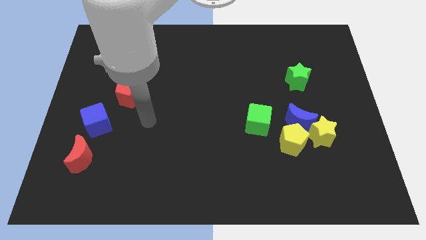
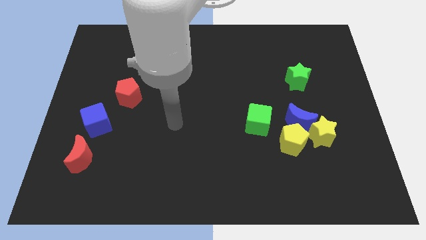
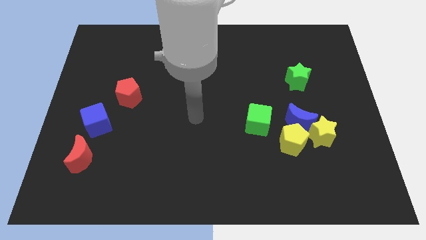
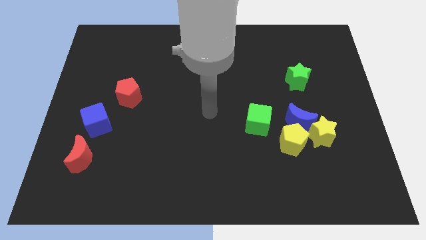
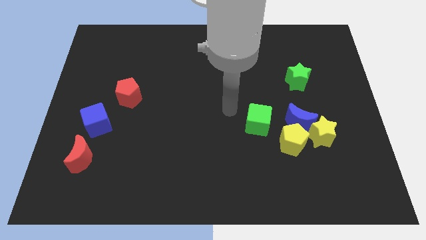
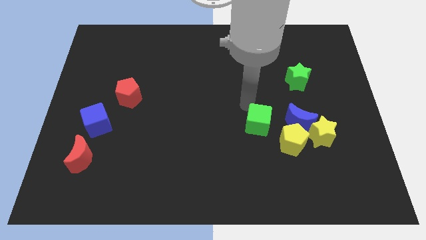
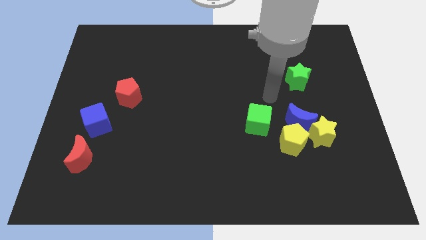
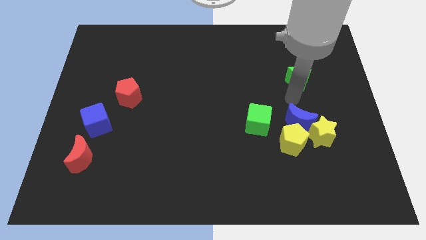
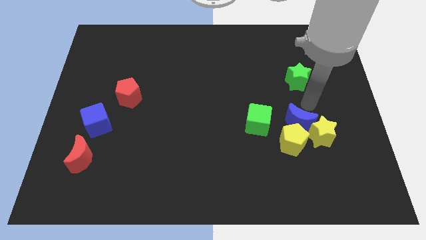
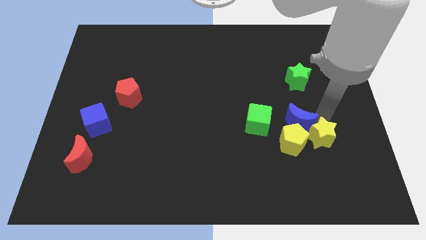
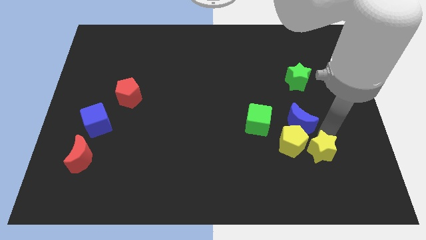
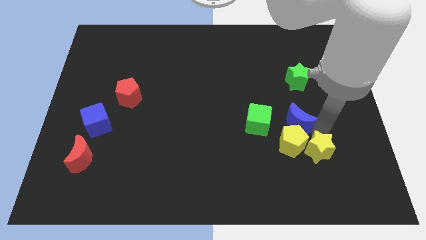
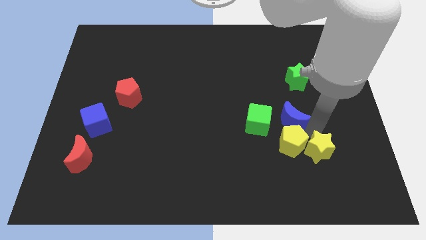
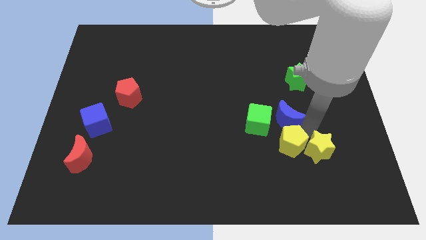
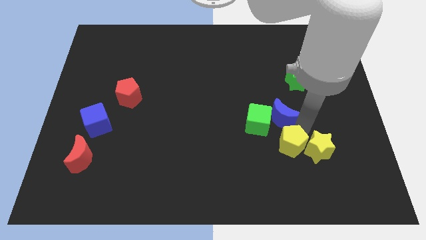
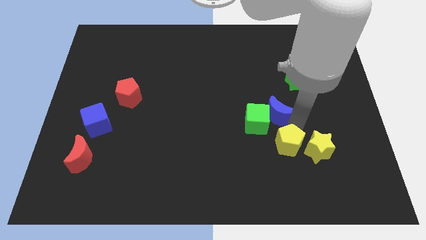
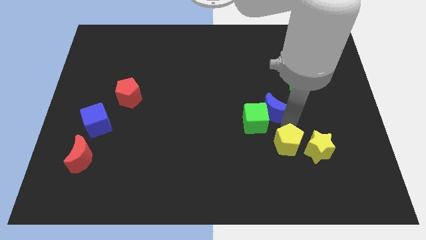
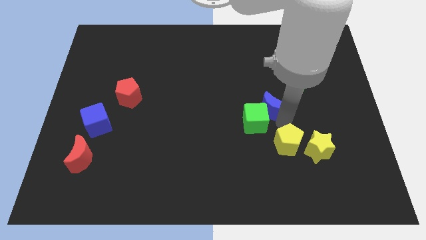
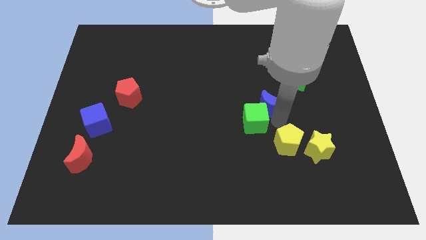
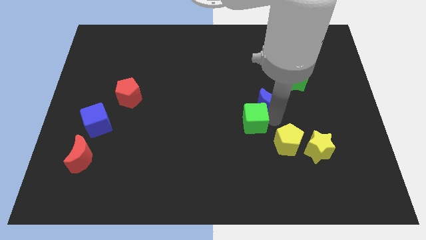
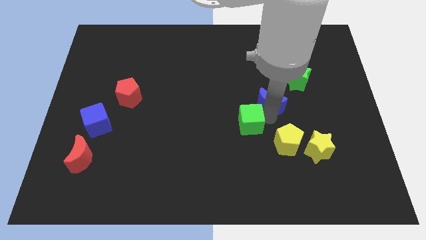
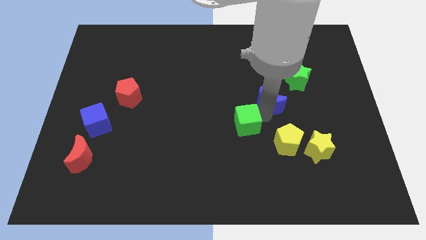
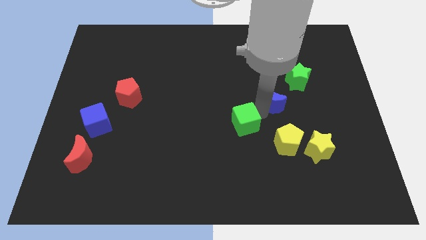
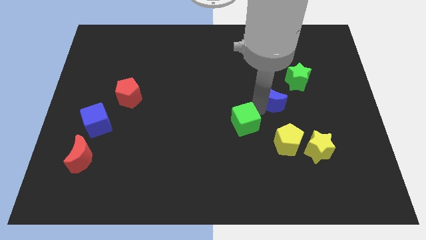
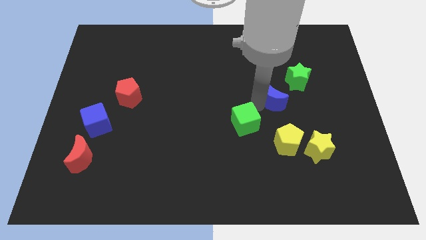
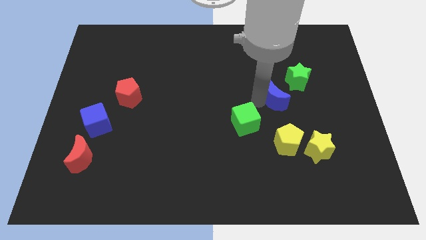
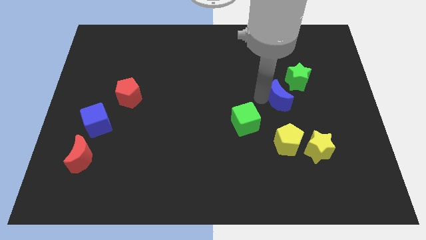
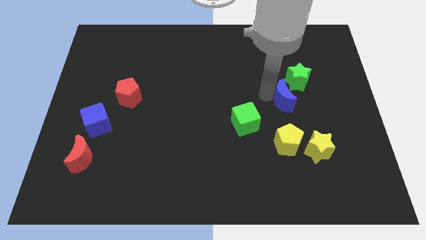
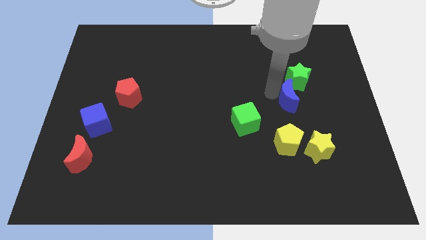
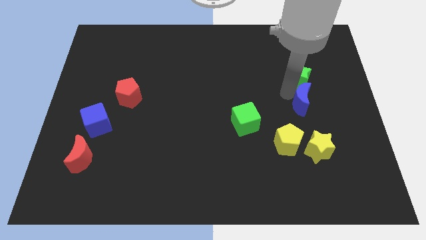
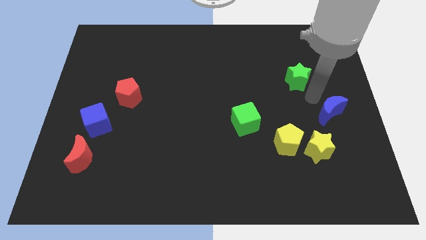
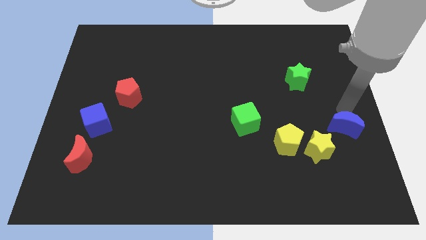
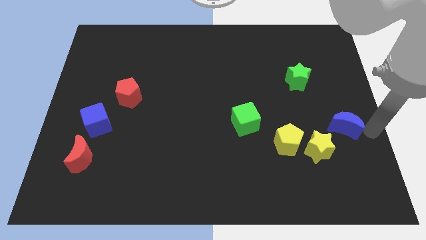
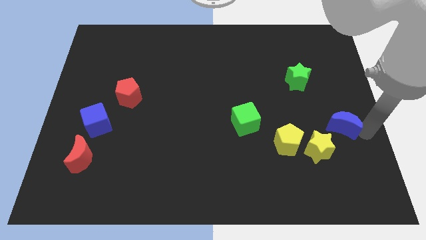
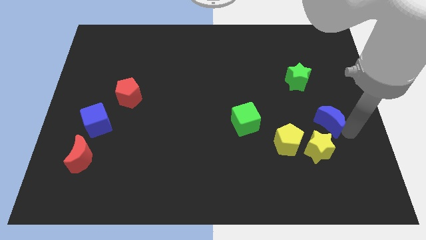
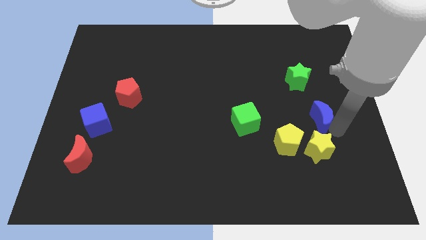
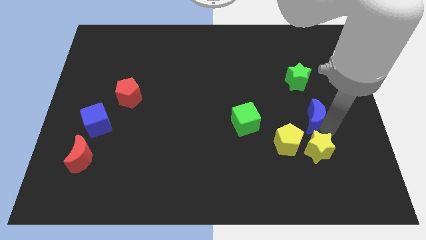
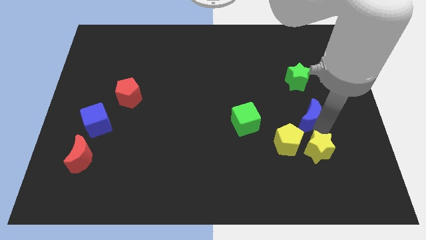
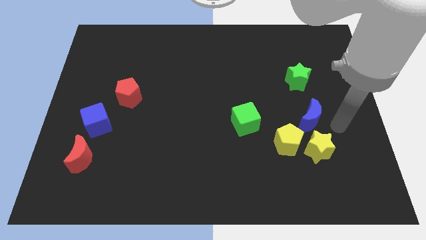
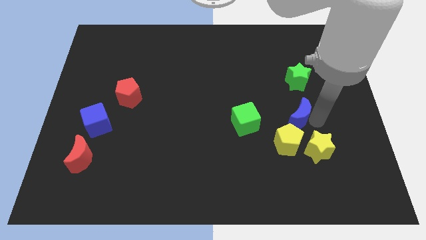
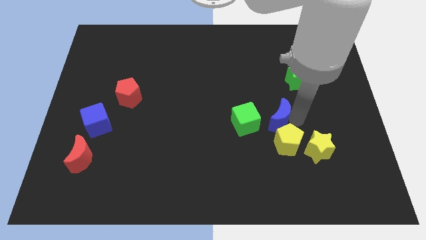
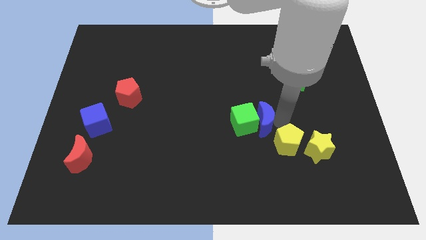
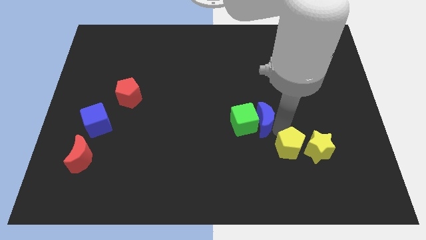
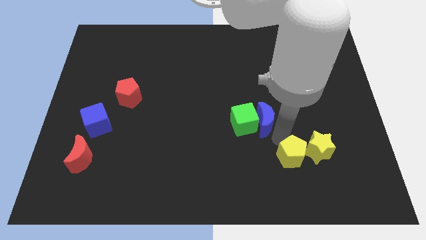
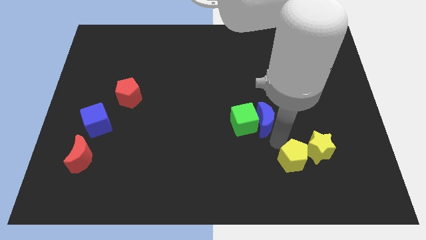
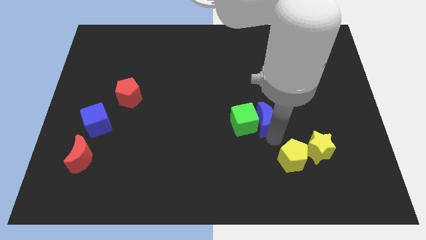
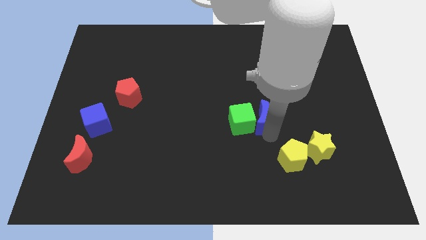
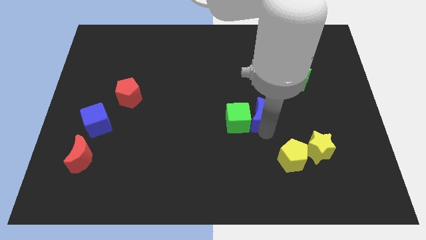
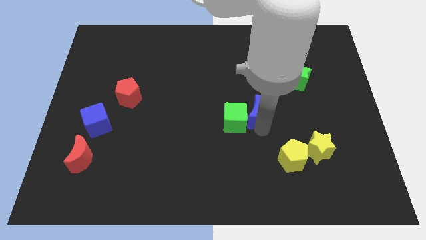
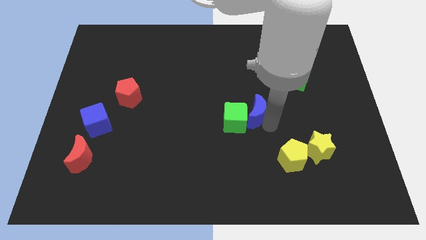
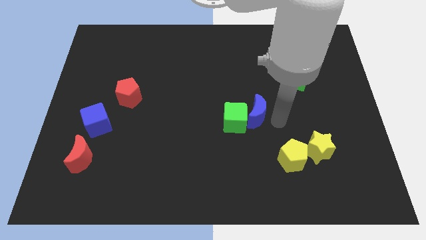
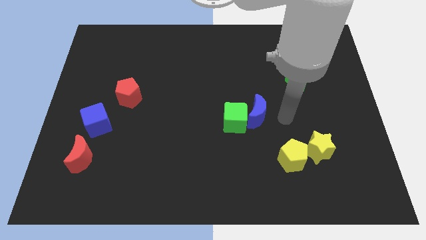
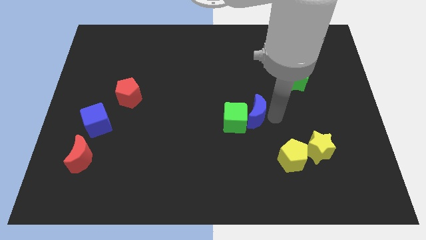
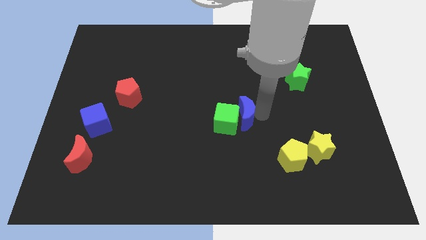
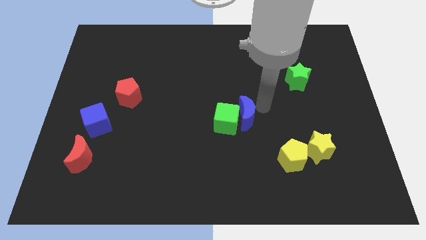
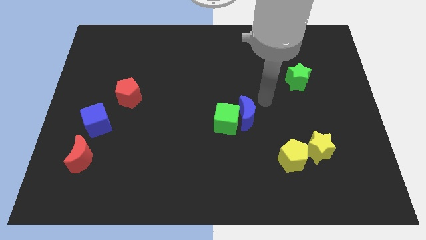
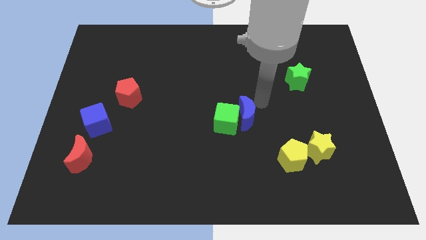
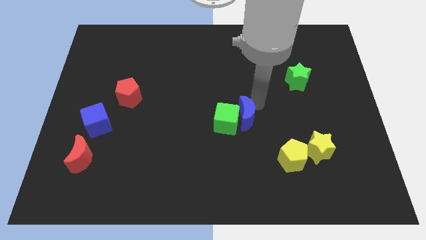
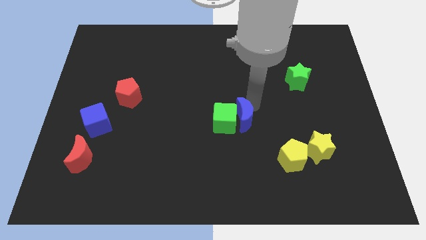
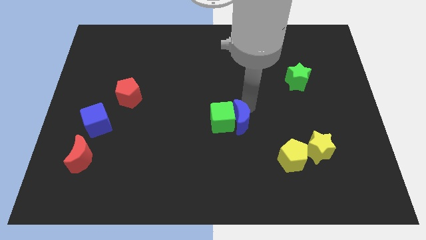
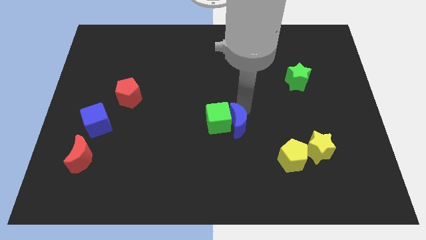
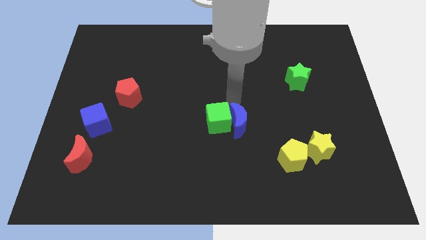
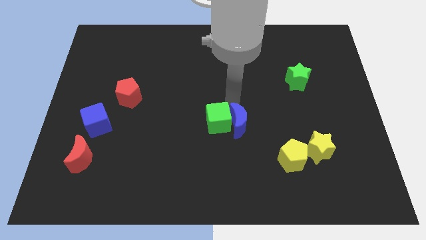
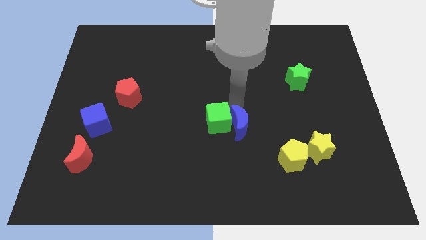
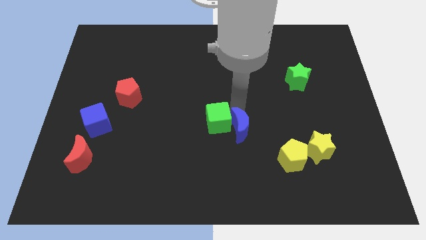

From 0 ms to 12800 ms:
slightly slide the blue moon down and then to the left

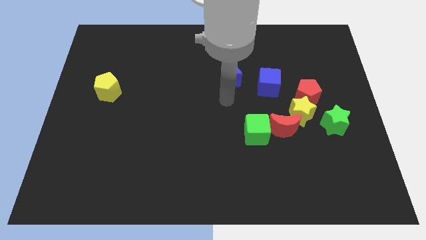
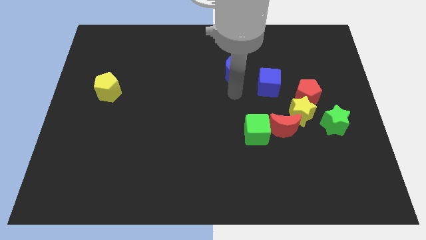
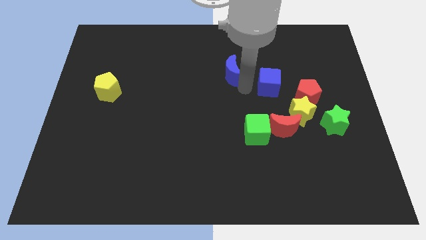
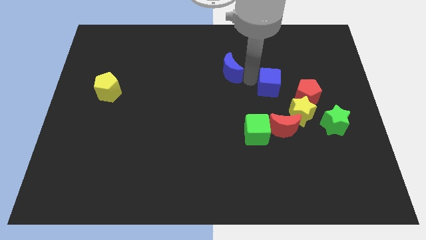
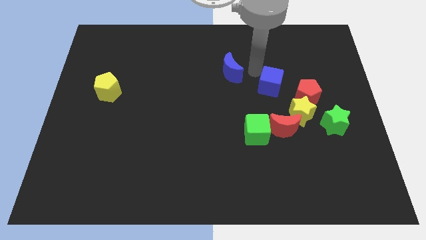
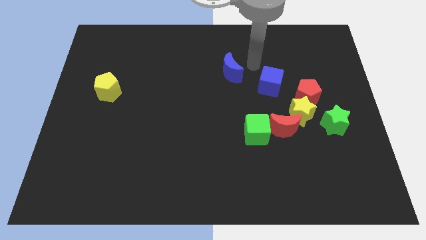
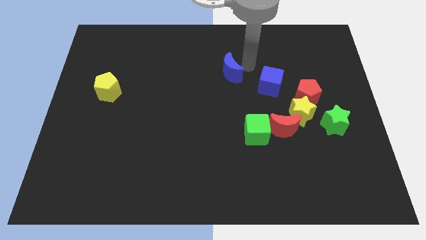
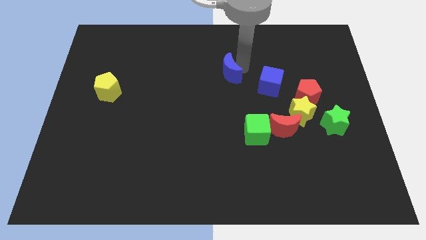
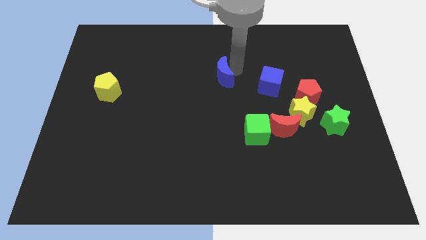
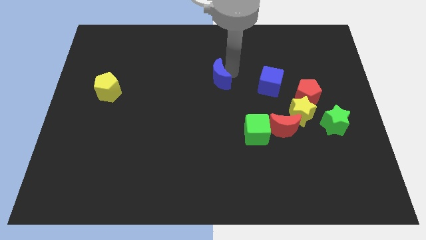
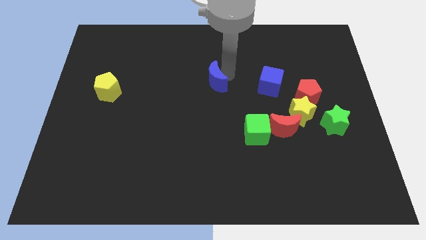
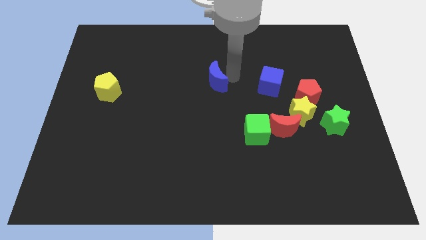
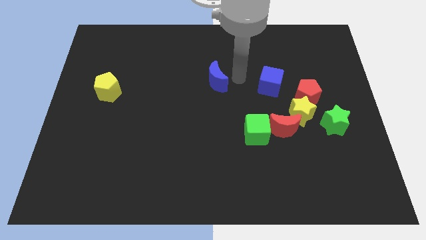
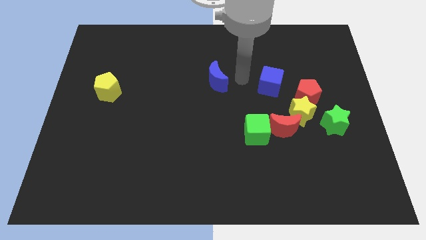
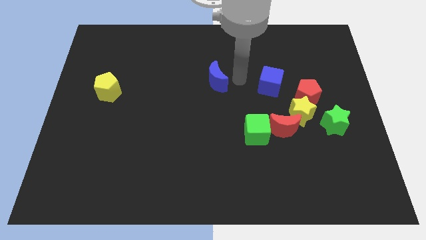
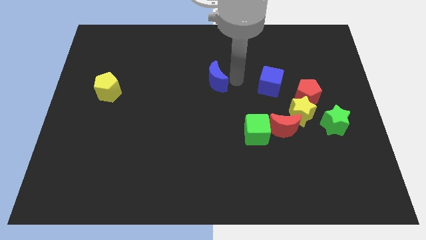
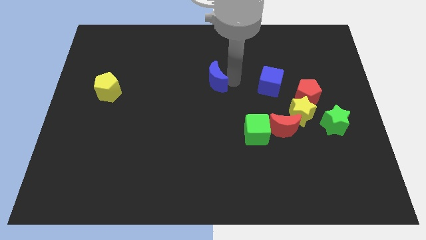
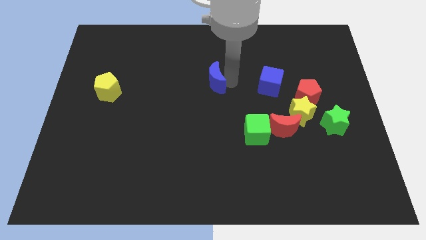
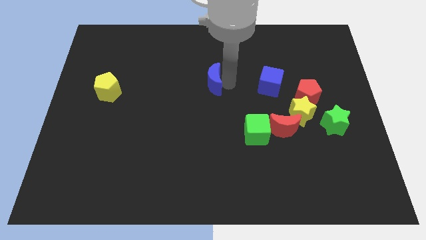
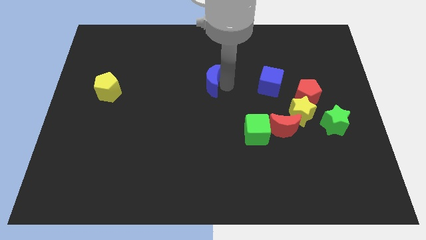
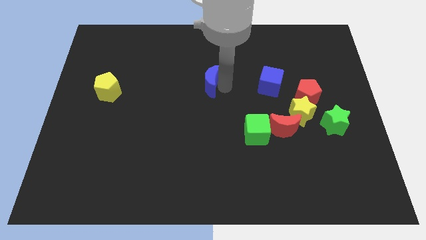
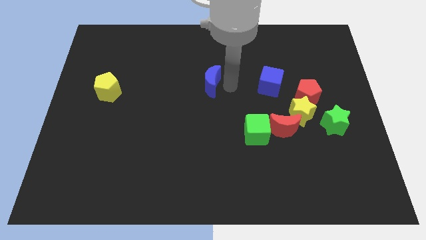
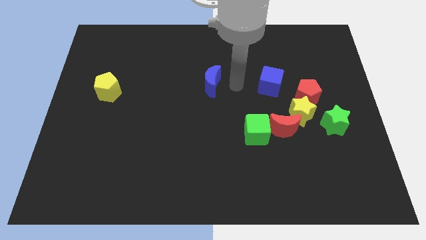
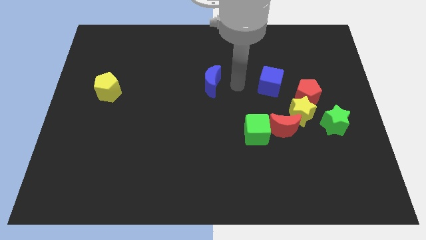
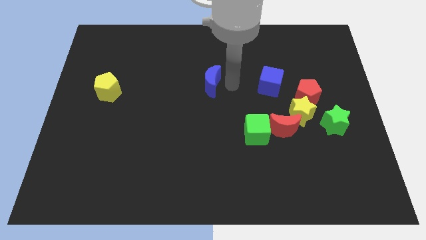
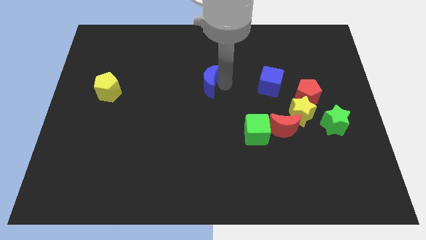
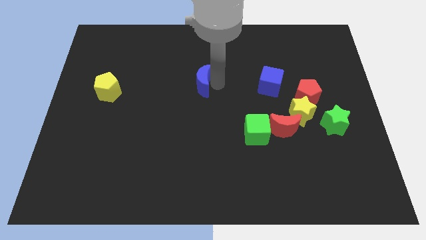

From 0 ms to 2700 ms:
push the blue moon to the left a little bit
